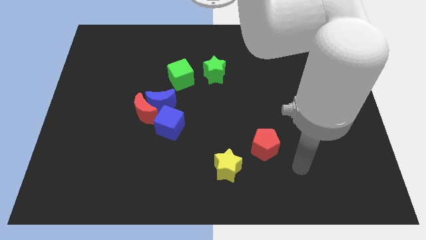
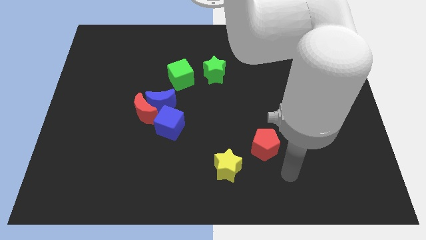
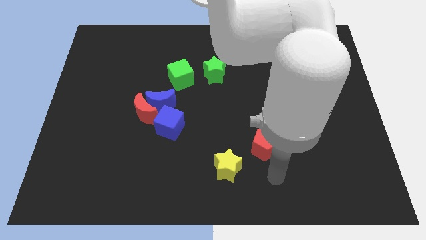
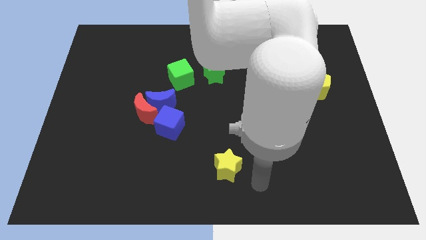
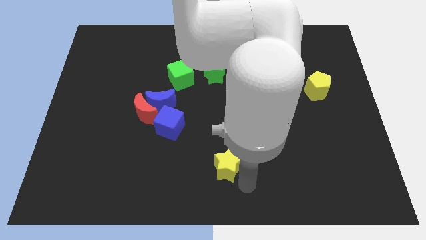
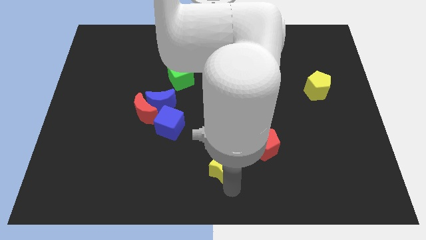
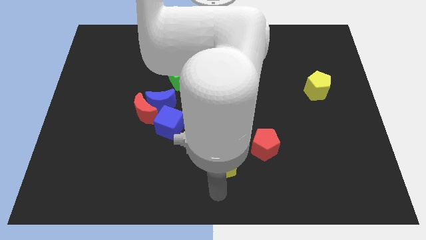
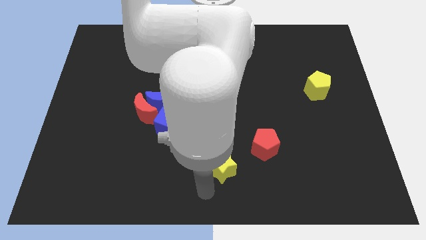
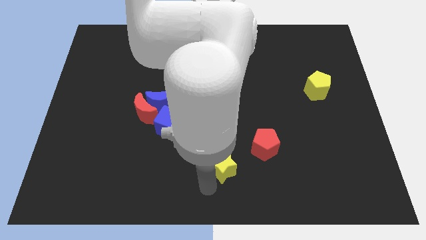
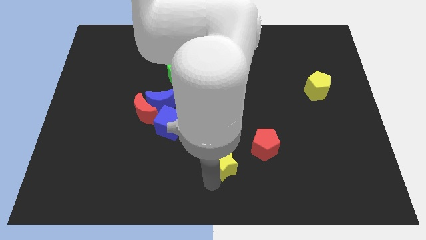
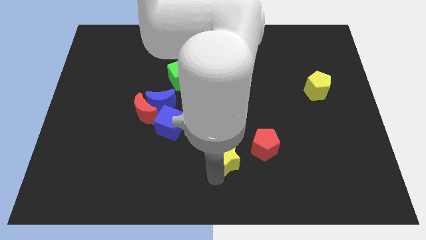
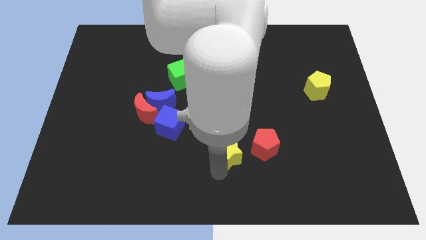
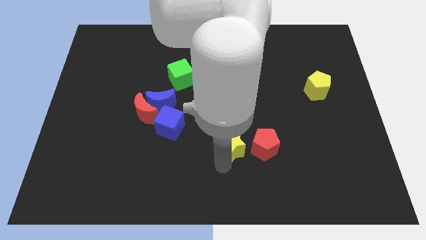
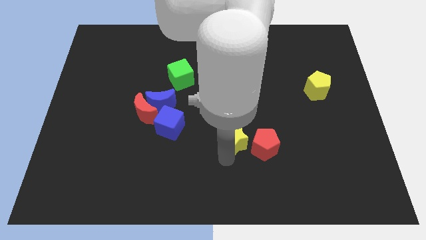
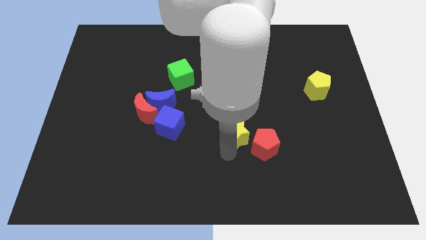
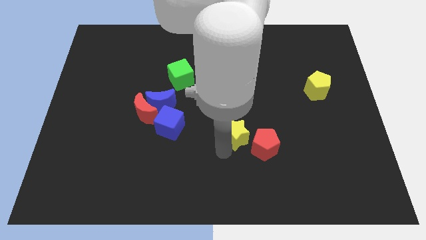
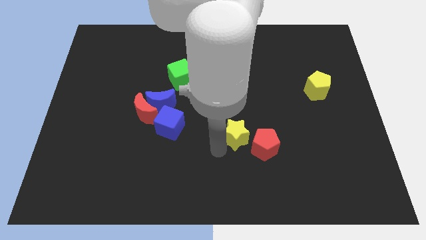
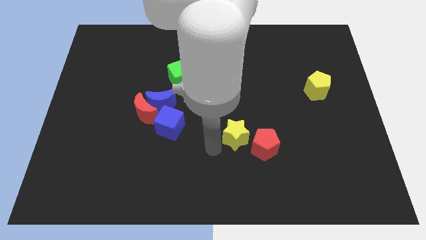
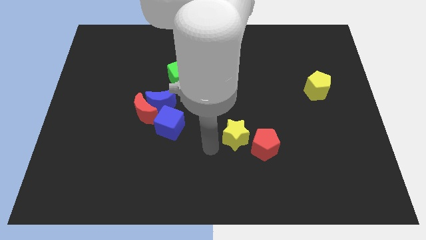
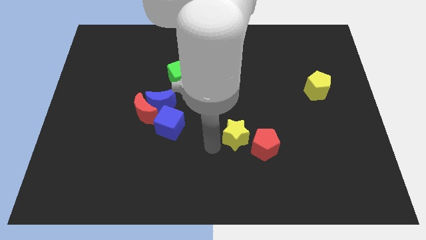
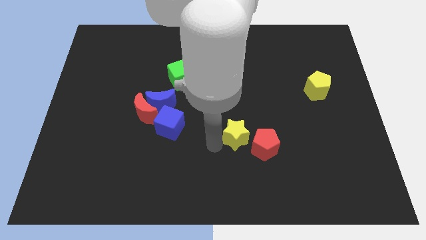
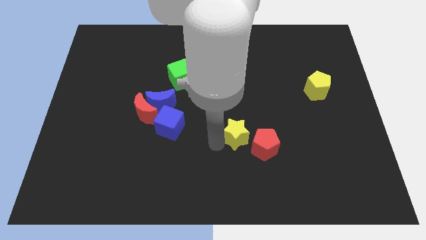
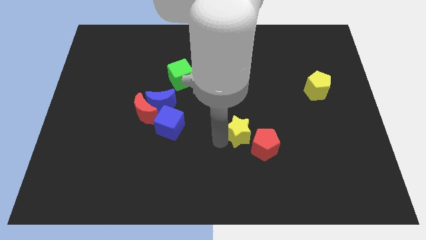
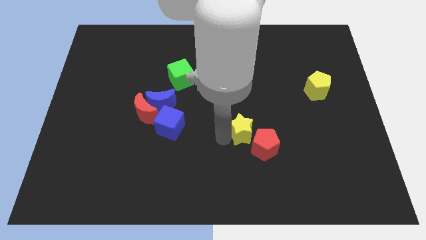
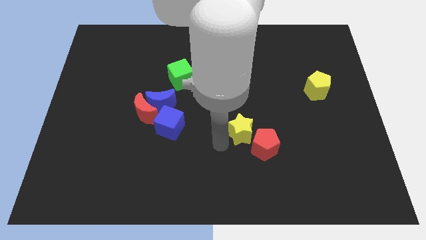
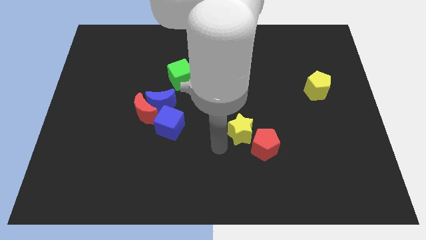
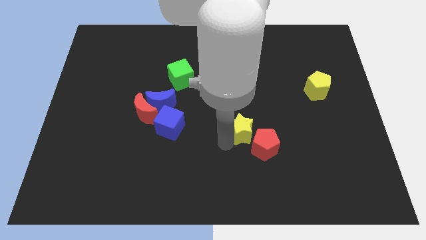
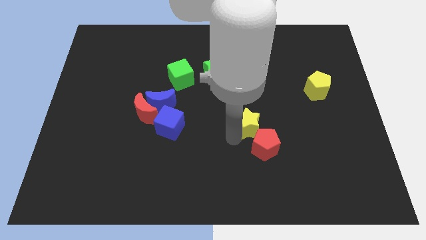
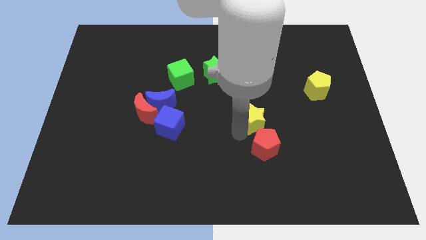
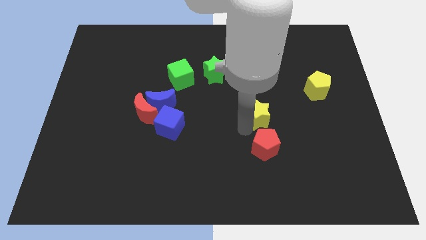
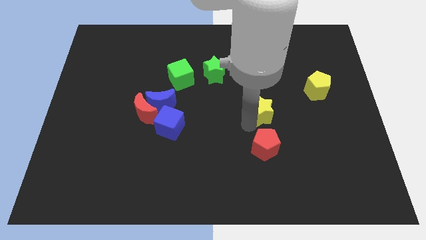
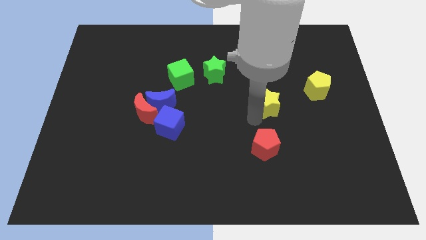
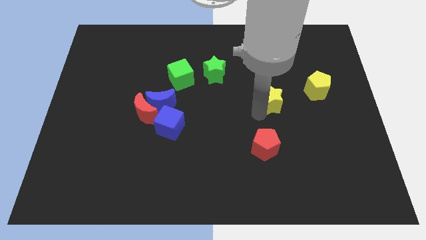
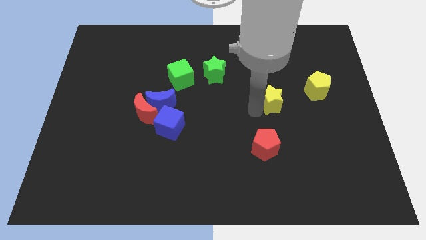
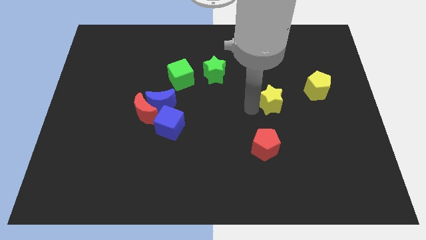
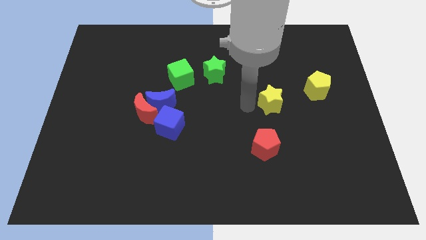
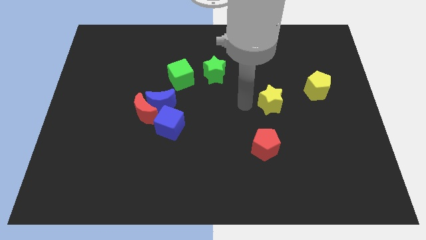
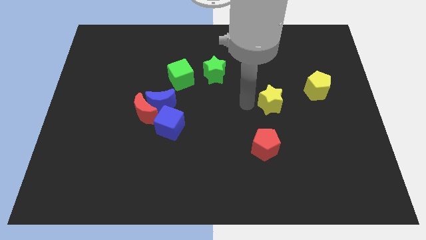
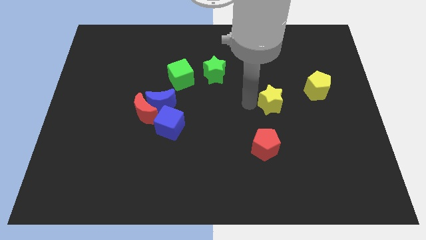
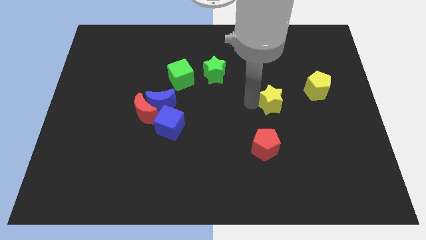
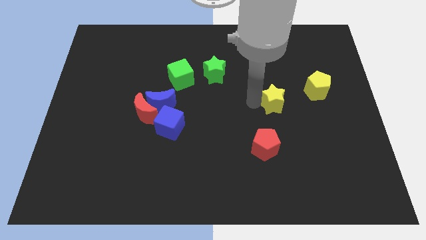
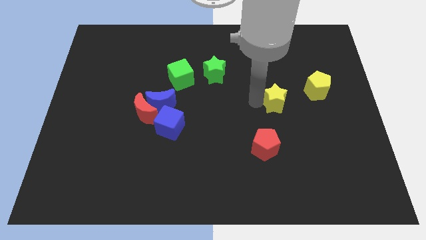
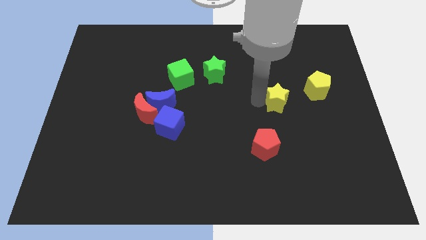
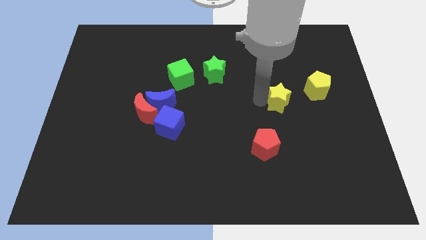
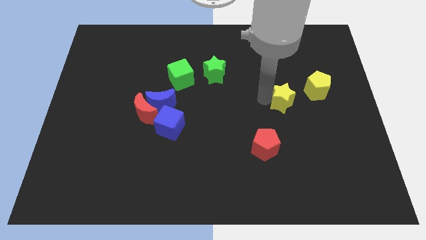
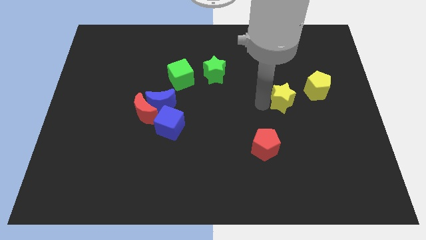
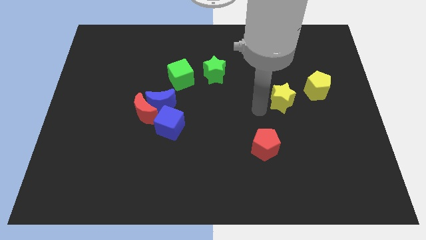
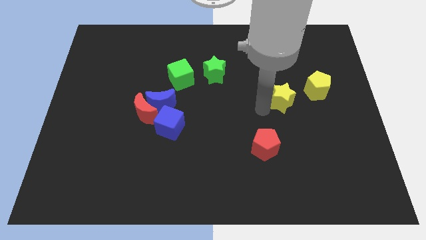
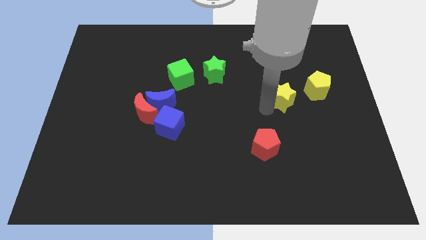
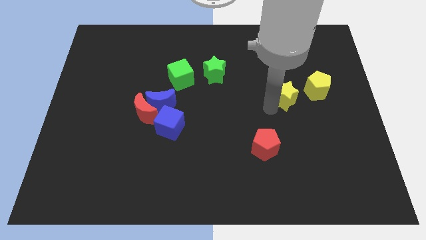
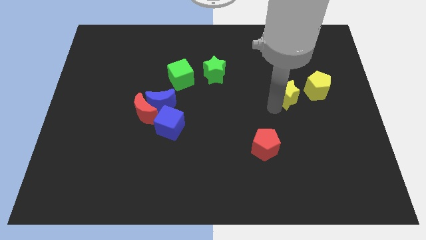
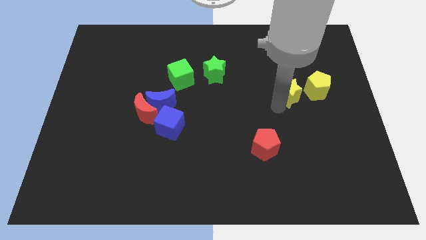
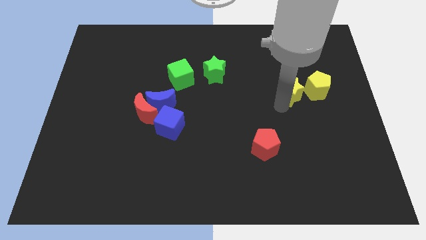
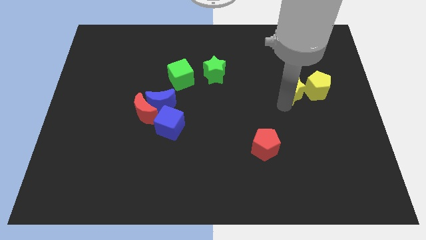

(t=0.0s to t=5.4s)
put the yellow star next to the yellow pentagon

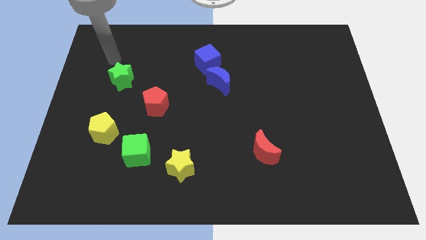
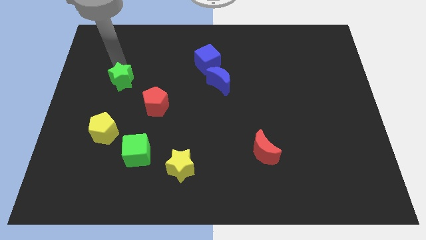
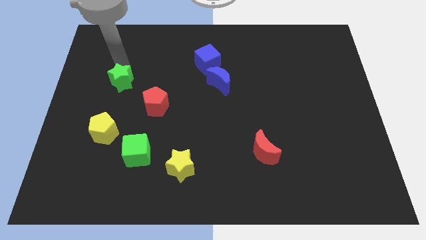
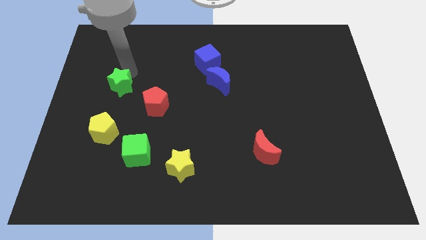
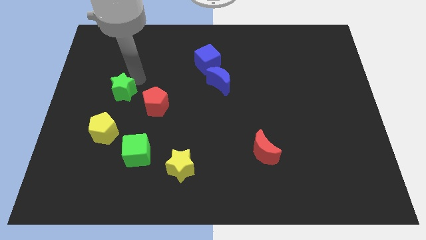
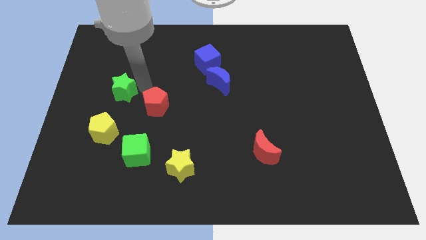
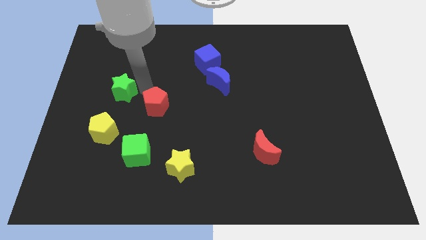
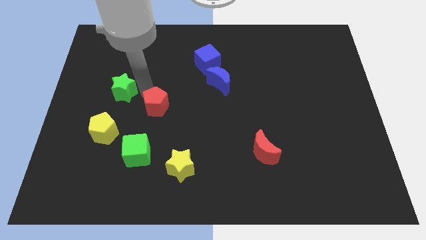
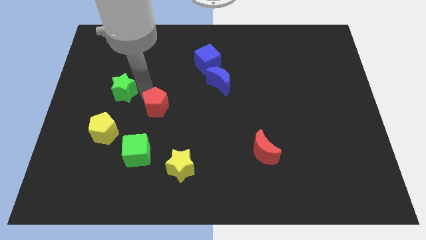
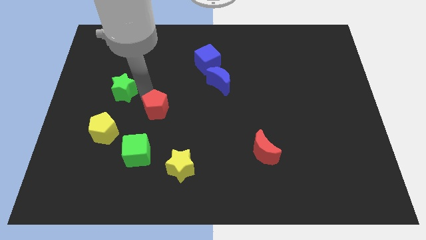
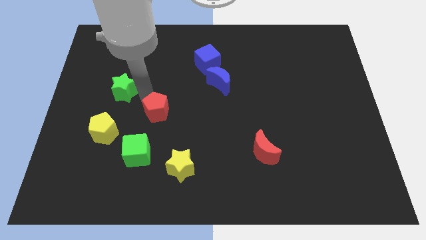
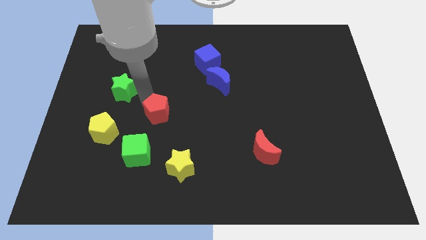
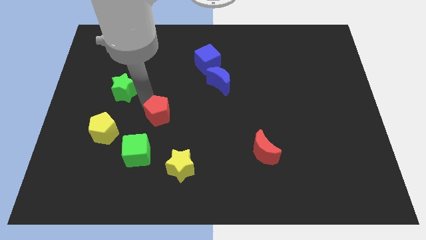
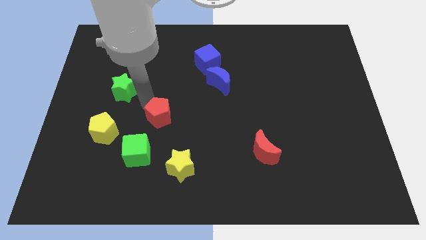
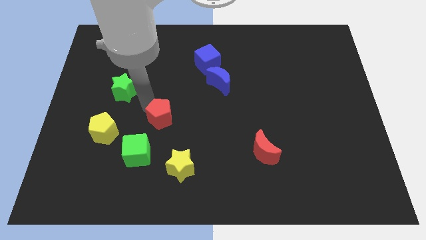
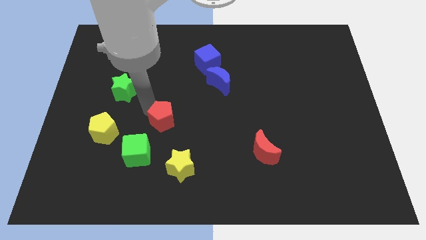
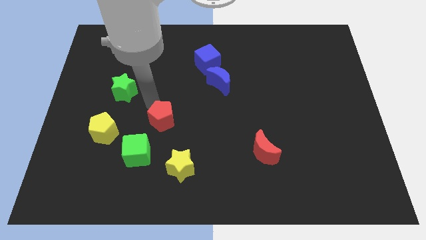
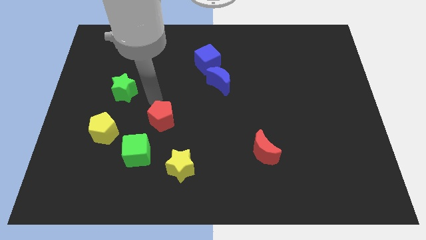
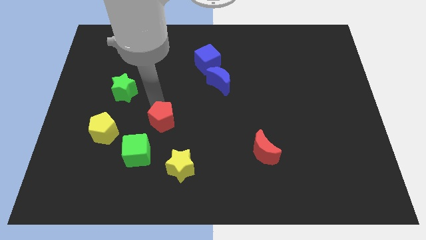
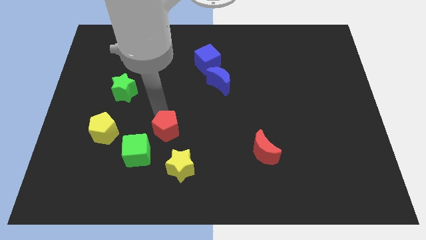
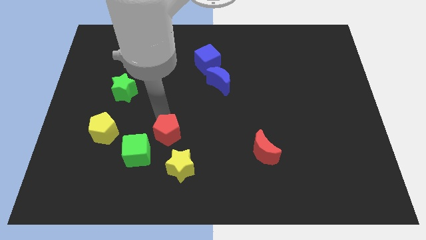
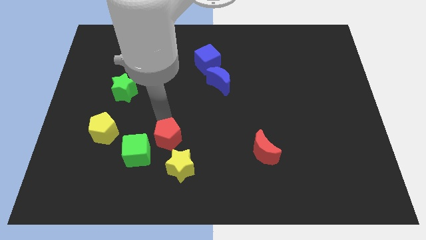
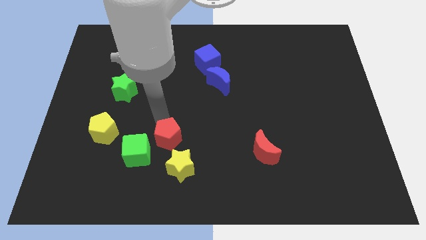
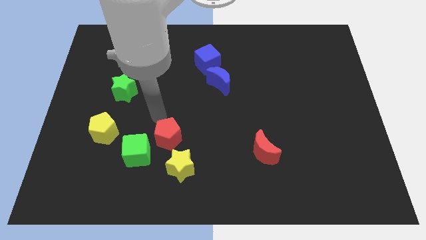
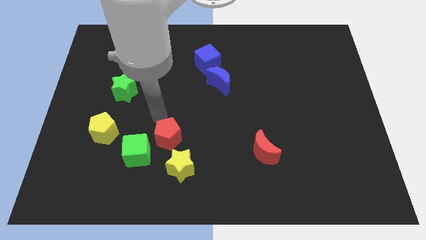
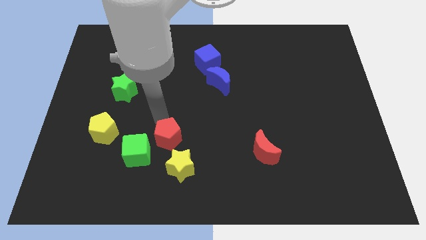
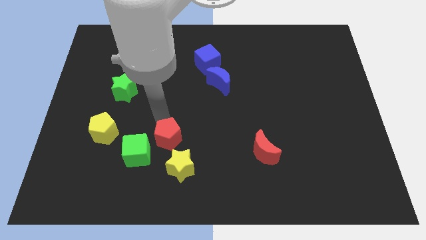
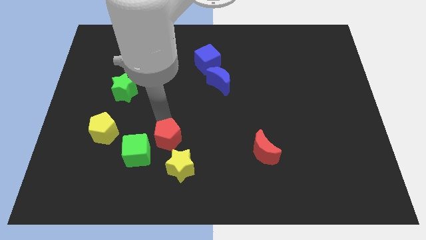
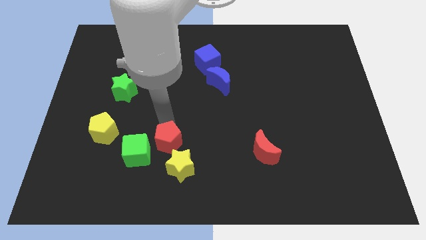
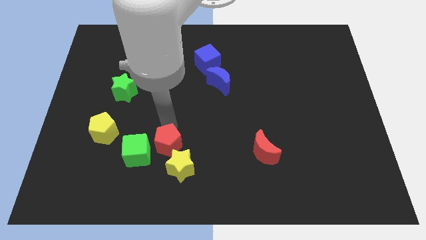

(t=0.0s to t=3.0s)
put the red pentagon towards the yellow star
